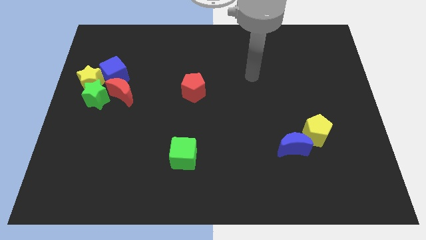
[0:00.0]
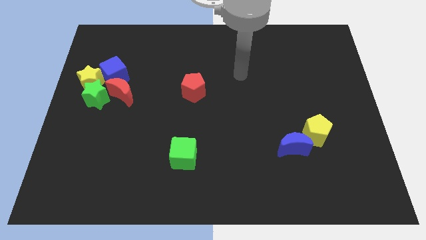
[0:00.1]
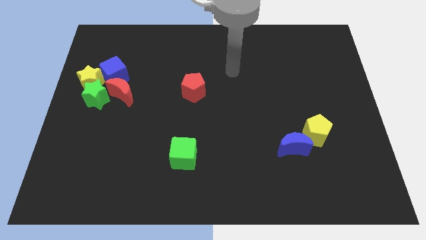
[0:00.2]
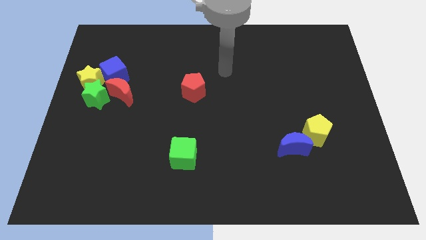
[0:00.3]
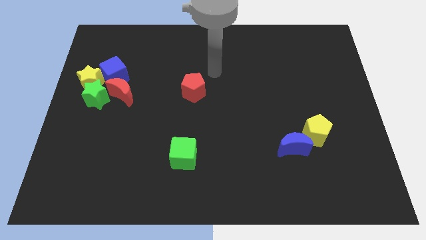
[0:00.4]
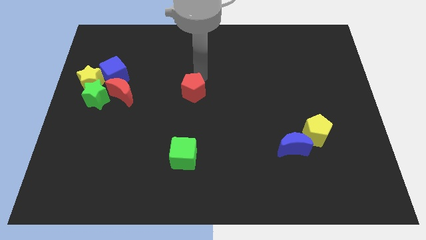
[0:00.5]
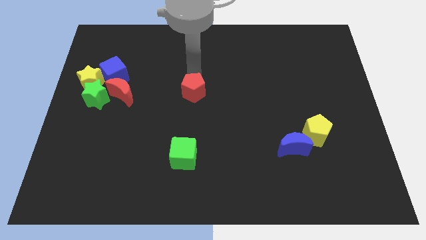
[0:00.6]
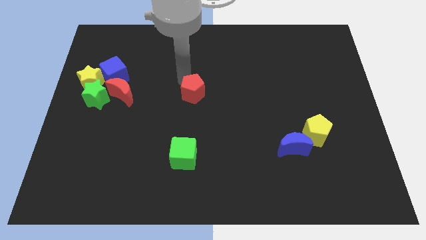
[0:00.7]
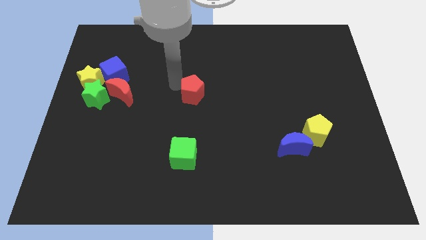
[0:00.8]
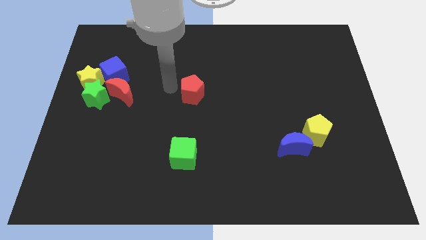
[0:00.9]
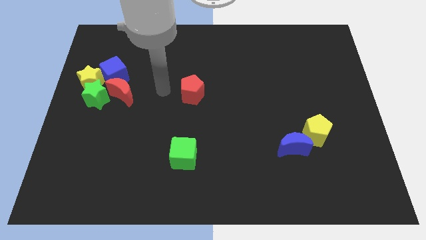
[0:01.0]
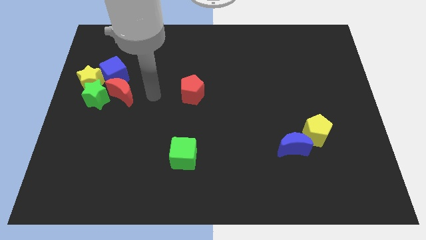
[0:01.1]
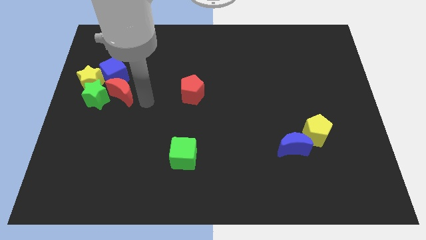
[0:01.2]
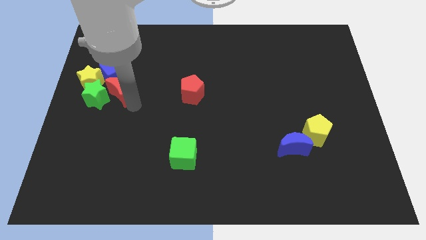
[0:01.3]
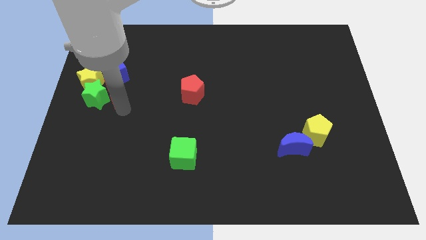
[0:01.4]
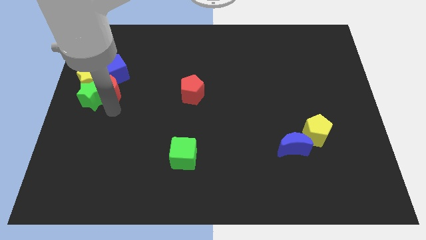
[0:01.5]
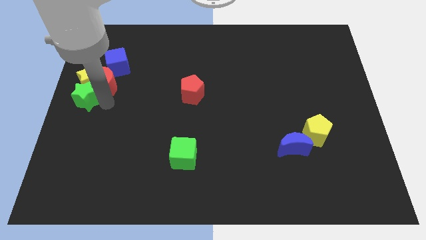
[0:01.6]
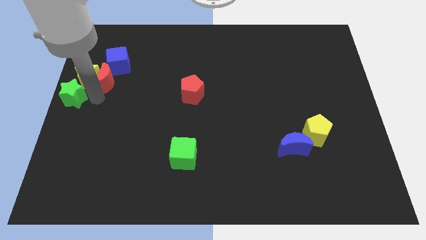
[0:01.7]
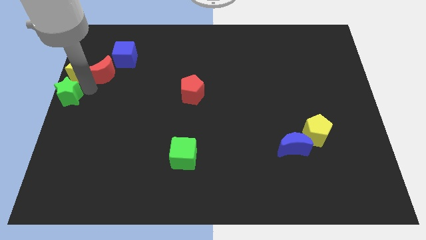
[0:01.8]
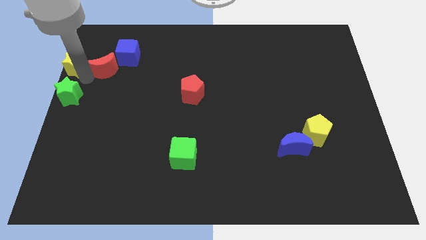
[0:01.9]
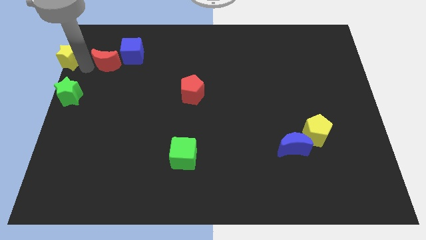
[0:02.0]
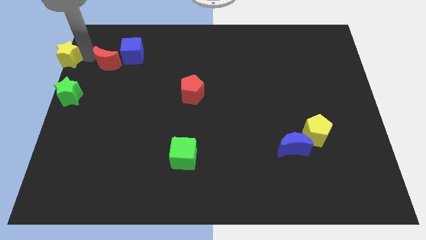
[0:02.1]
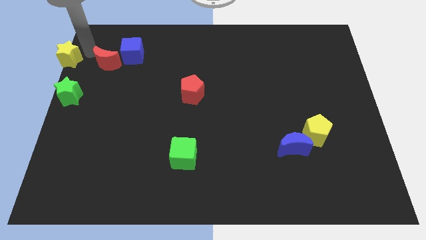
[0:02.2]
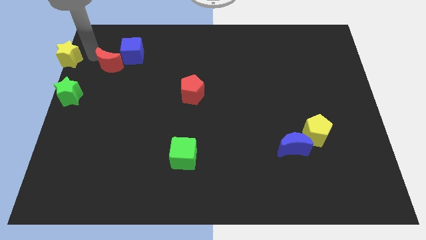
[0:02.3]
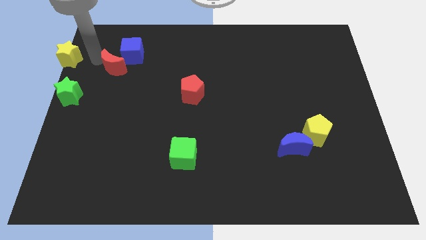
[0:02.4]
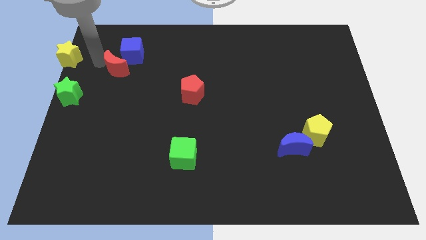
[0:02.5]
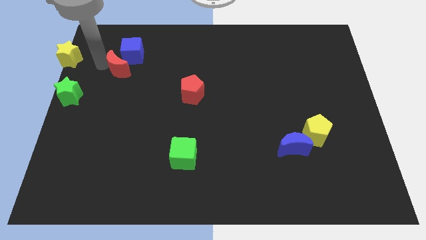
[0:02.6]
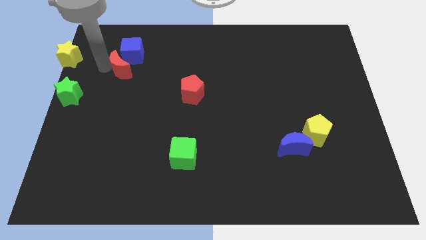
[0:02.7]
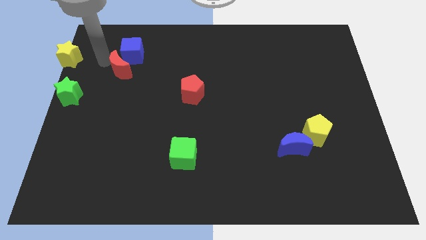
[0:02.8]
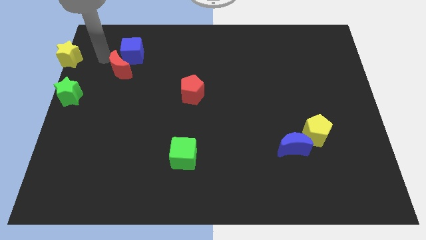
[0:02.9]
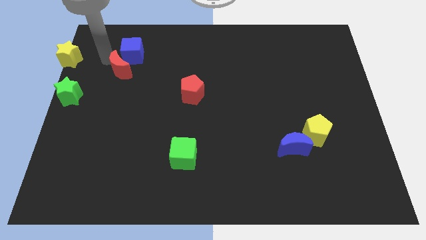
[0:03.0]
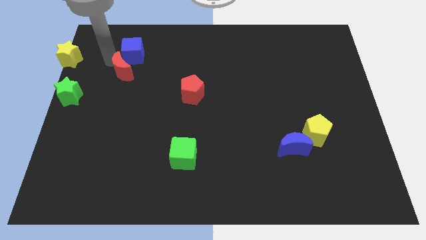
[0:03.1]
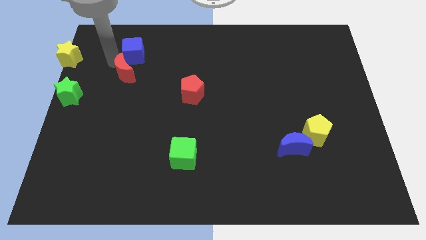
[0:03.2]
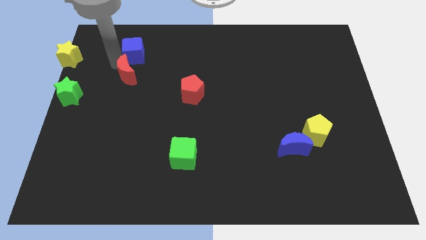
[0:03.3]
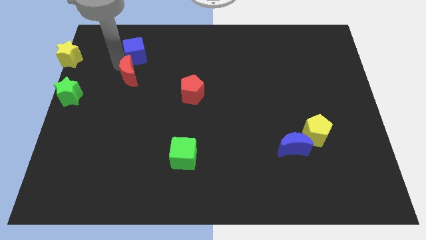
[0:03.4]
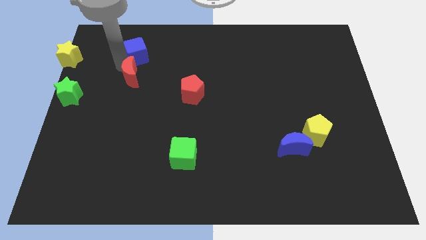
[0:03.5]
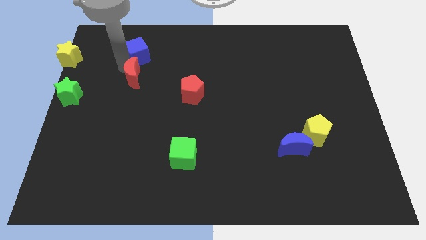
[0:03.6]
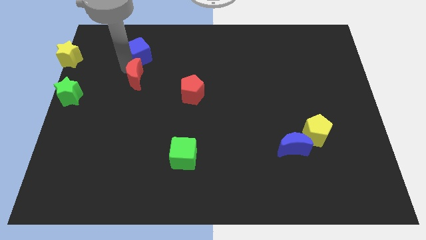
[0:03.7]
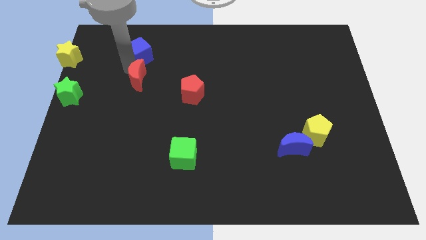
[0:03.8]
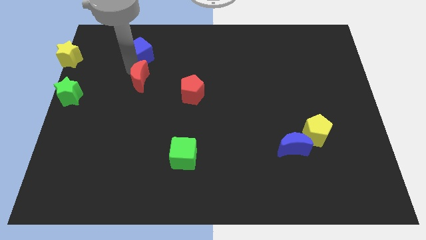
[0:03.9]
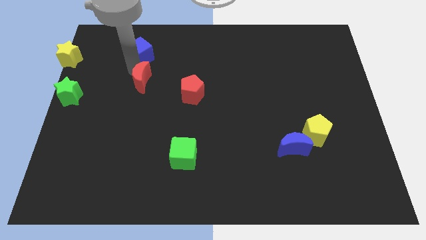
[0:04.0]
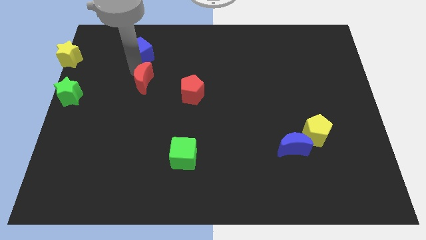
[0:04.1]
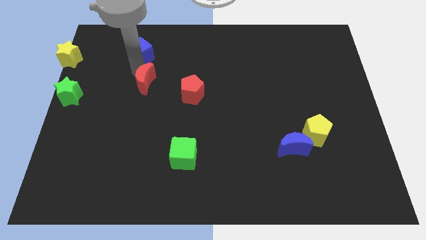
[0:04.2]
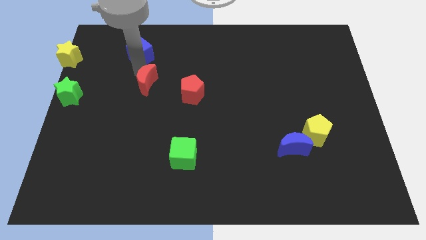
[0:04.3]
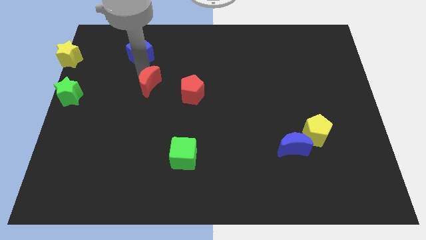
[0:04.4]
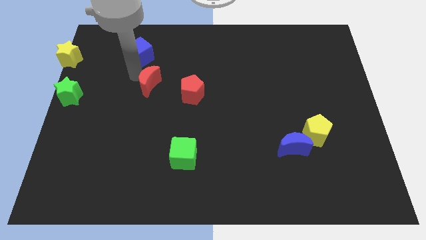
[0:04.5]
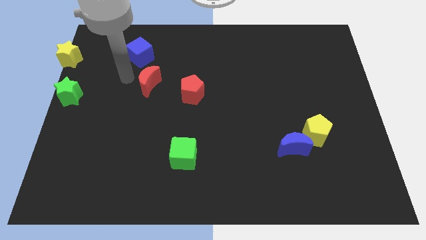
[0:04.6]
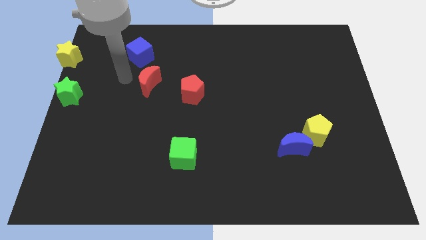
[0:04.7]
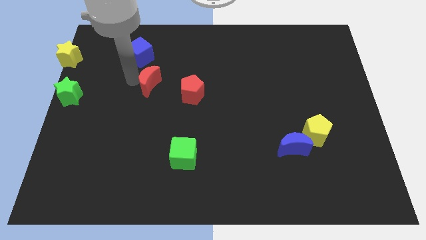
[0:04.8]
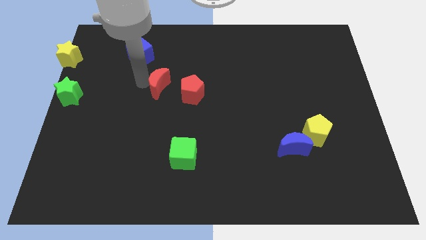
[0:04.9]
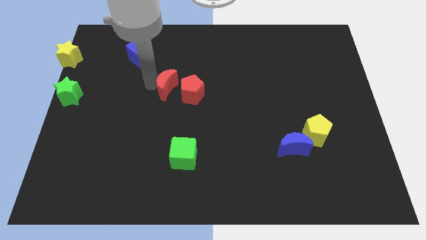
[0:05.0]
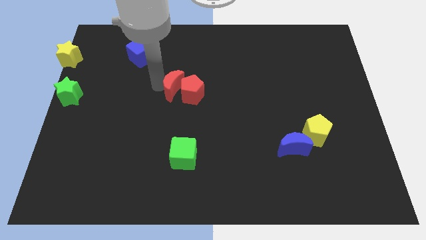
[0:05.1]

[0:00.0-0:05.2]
push the red moon next to the red pentagon

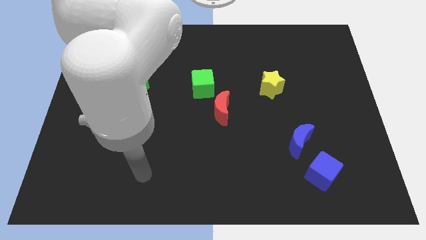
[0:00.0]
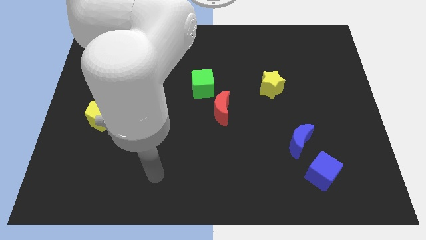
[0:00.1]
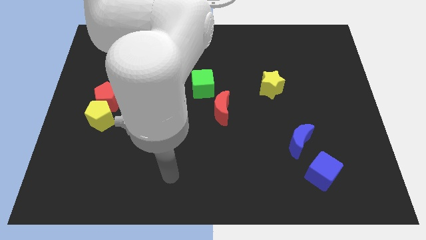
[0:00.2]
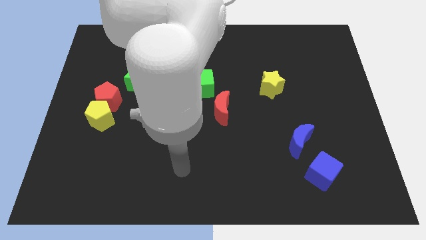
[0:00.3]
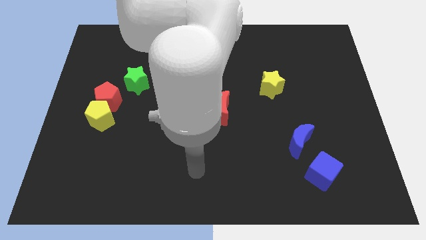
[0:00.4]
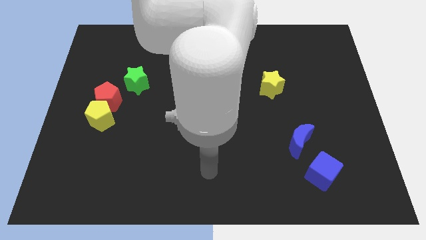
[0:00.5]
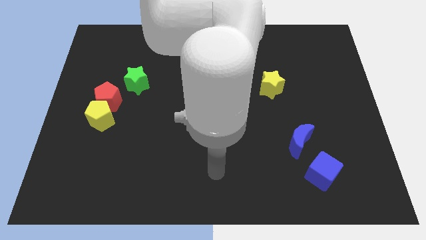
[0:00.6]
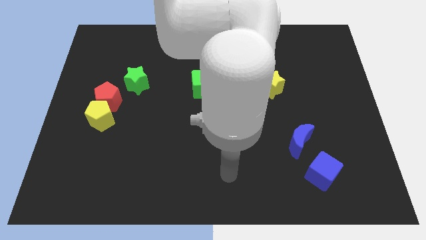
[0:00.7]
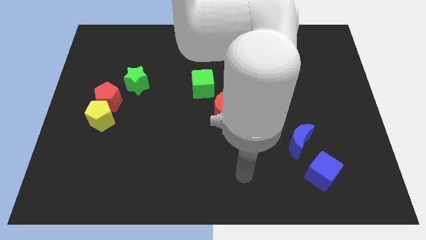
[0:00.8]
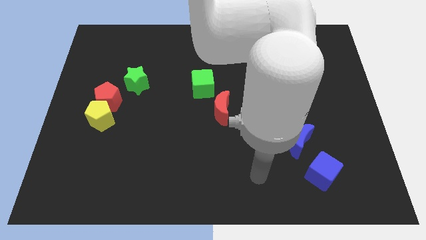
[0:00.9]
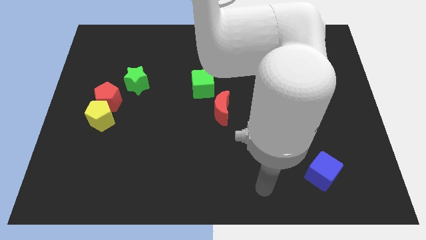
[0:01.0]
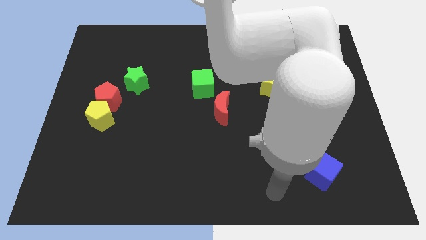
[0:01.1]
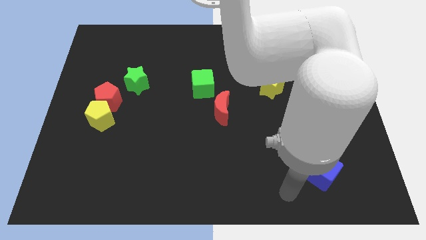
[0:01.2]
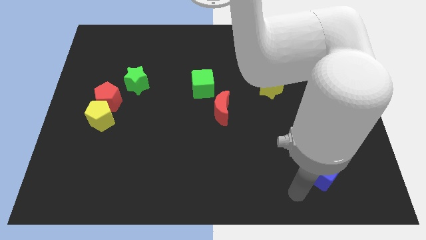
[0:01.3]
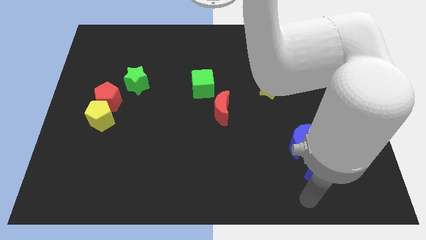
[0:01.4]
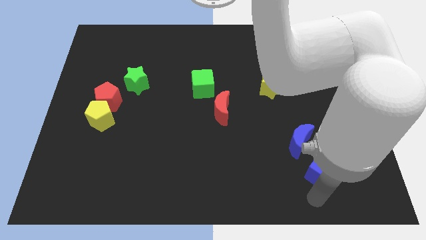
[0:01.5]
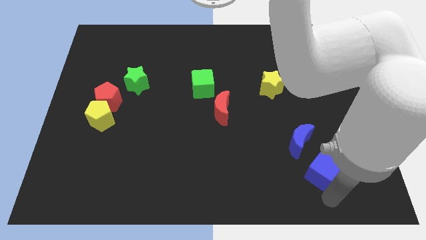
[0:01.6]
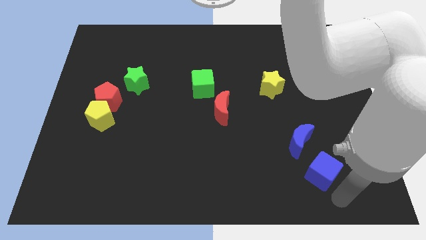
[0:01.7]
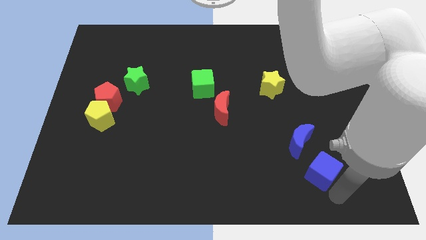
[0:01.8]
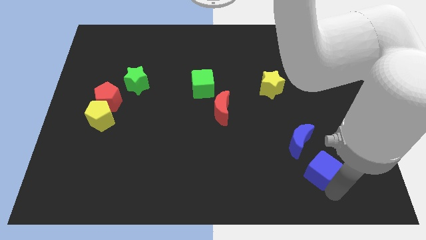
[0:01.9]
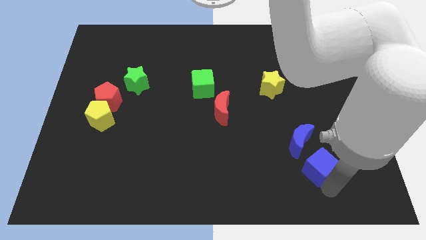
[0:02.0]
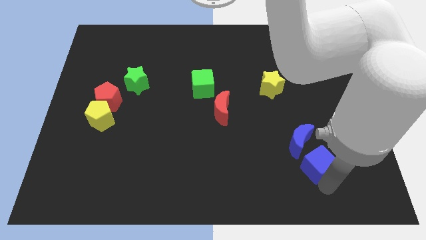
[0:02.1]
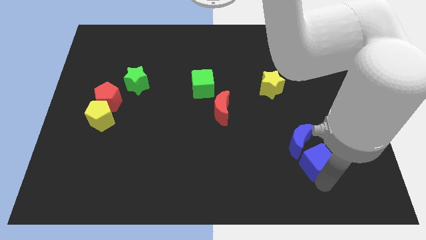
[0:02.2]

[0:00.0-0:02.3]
put the blue cube close to the blue moon

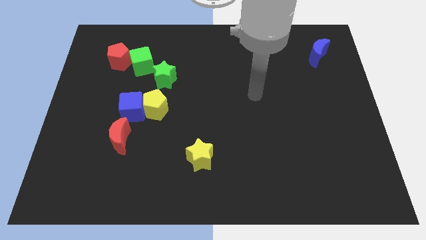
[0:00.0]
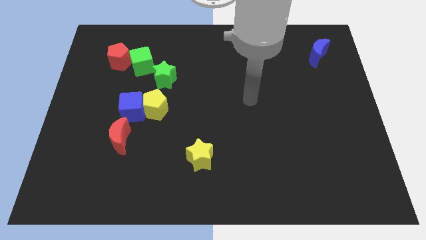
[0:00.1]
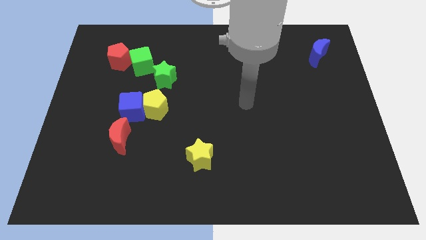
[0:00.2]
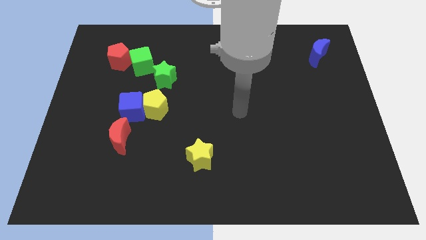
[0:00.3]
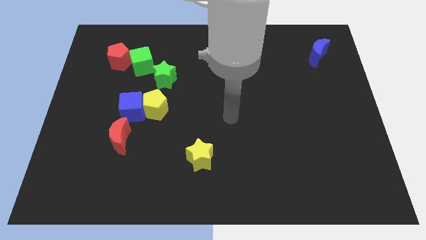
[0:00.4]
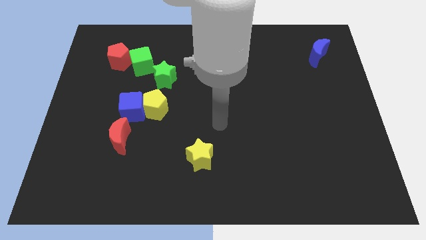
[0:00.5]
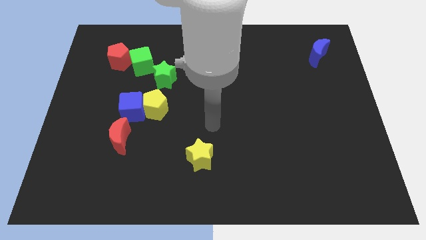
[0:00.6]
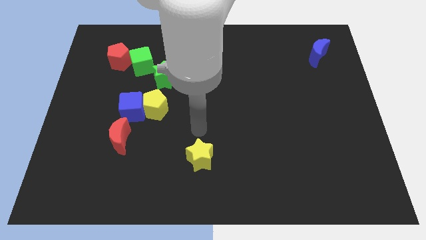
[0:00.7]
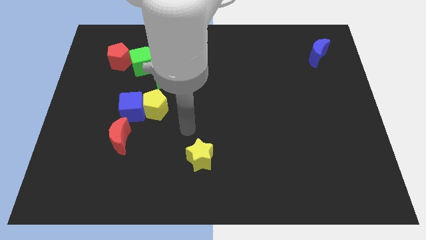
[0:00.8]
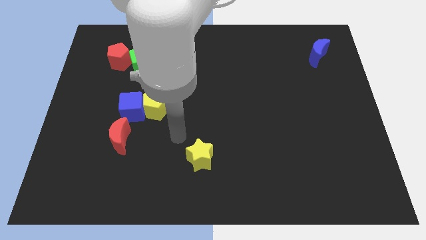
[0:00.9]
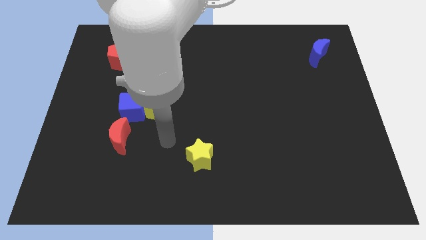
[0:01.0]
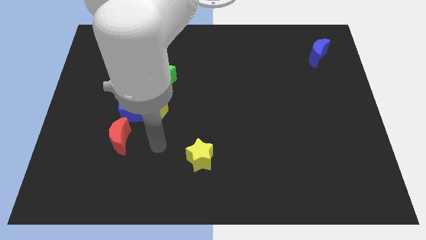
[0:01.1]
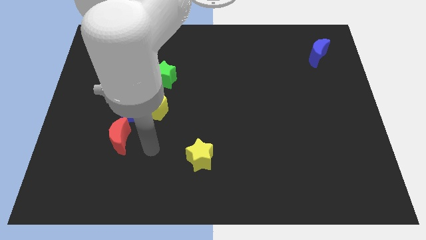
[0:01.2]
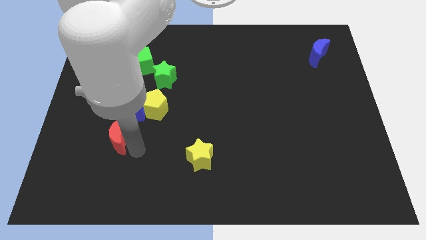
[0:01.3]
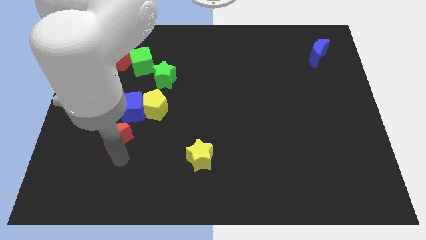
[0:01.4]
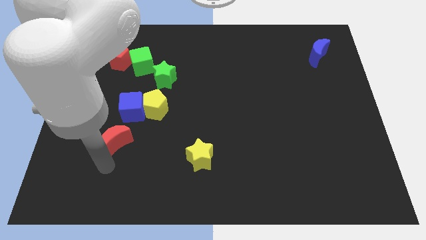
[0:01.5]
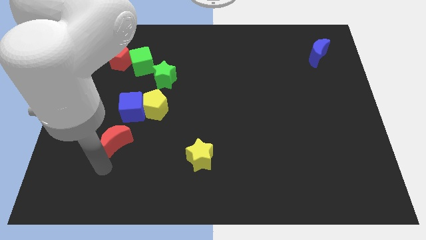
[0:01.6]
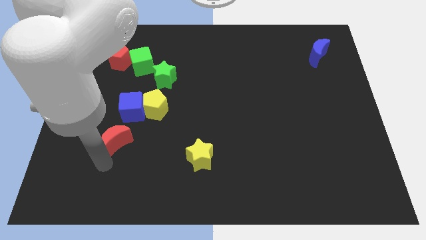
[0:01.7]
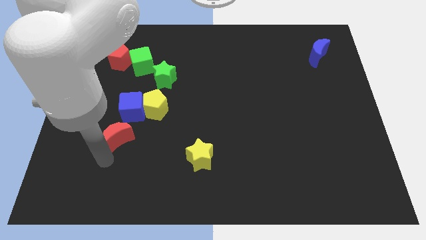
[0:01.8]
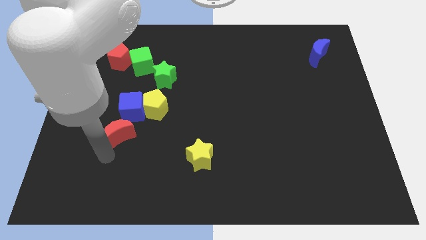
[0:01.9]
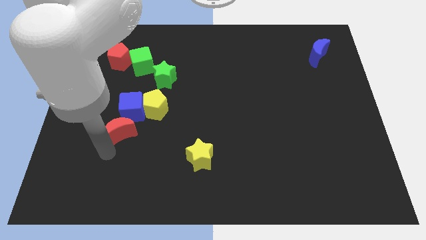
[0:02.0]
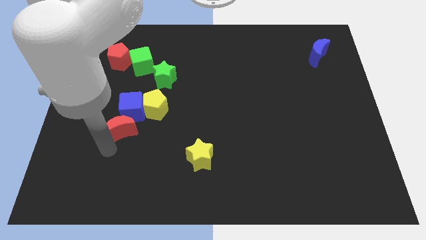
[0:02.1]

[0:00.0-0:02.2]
put the red moon close to the blue cube
